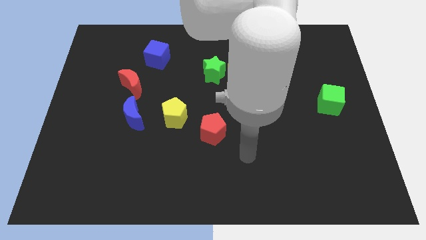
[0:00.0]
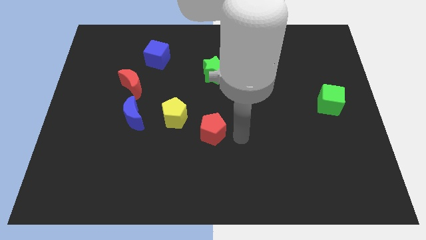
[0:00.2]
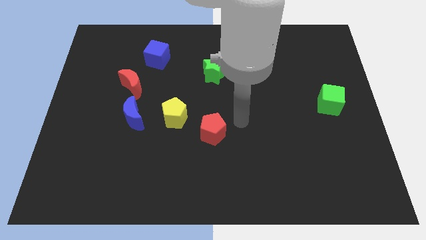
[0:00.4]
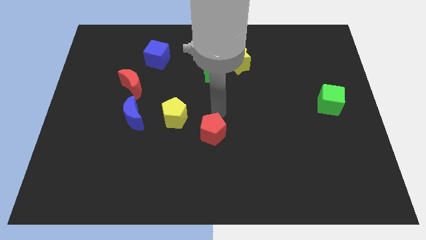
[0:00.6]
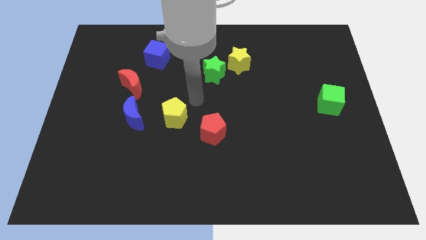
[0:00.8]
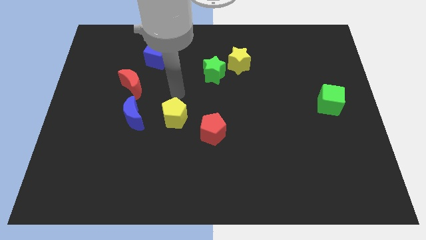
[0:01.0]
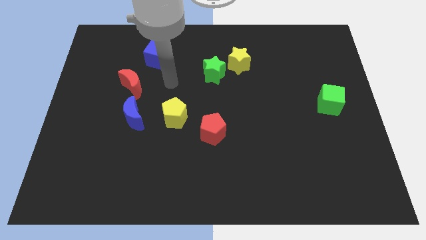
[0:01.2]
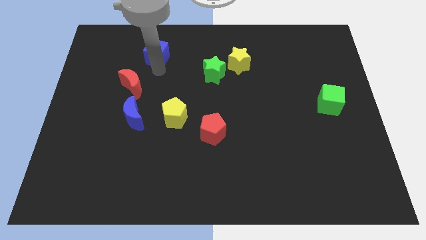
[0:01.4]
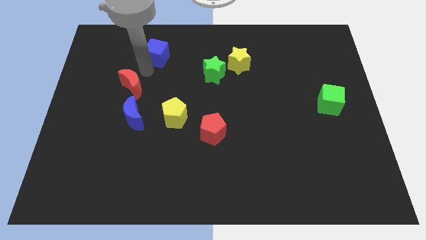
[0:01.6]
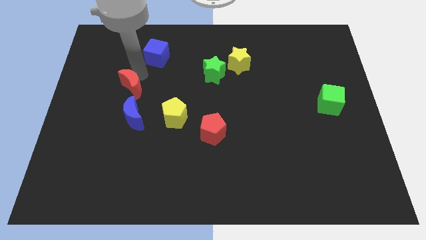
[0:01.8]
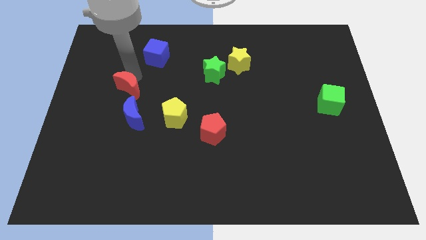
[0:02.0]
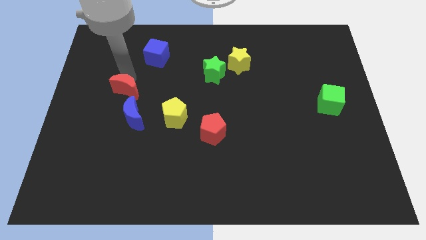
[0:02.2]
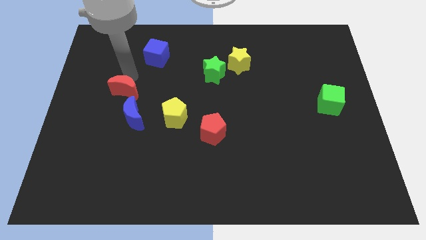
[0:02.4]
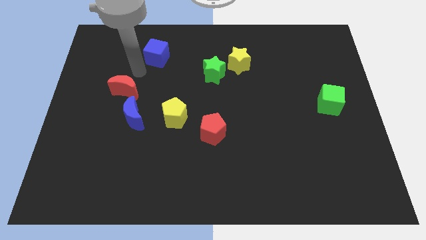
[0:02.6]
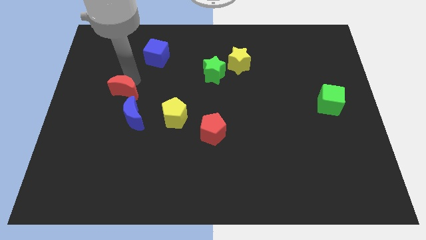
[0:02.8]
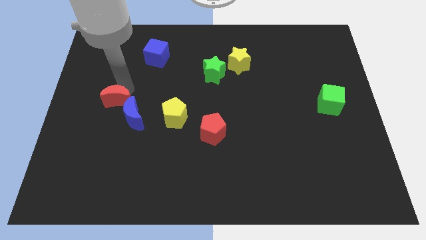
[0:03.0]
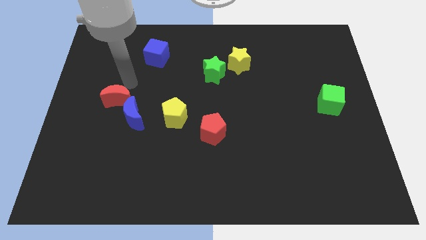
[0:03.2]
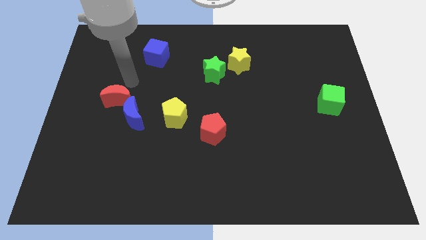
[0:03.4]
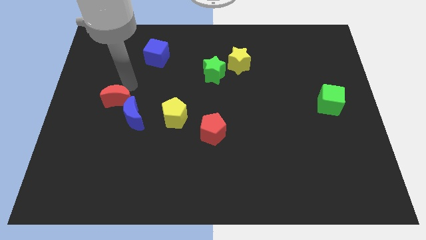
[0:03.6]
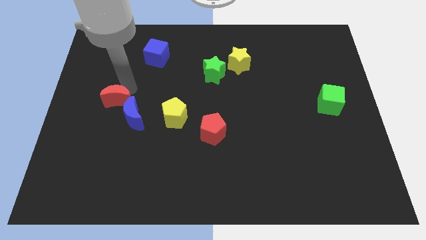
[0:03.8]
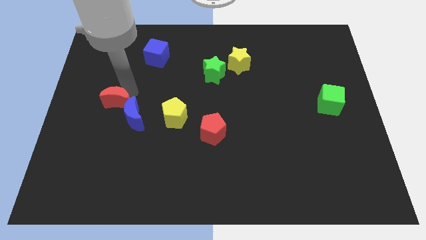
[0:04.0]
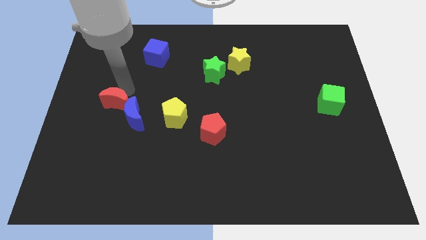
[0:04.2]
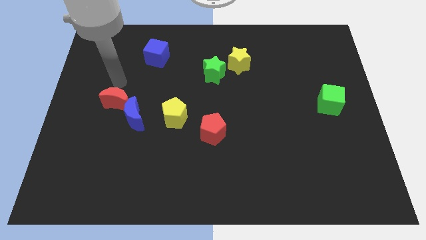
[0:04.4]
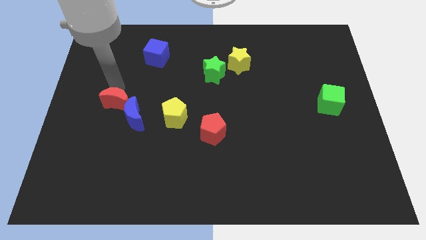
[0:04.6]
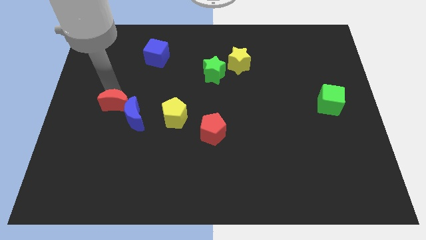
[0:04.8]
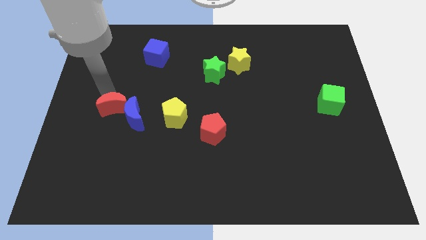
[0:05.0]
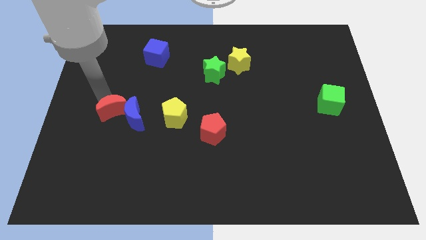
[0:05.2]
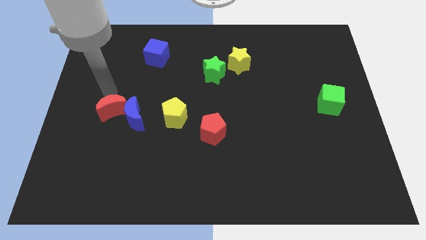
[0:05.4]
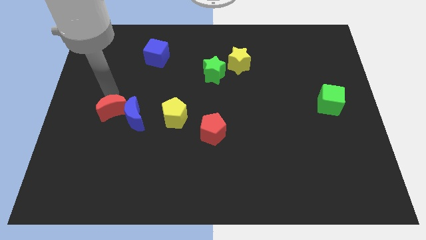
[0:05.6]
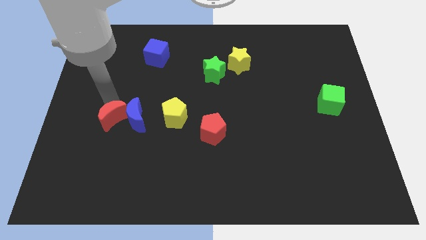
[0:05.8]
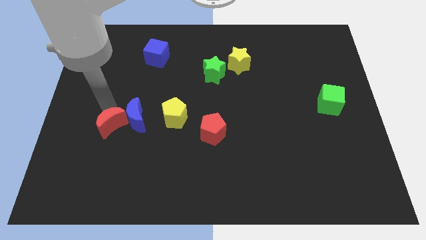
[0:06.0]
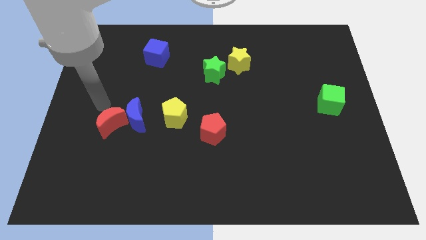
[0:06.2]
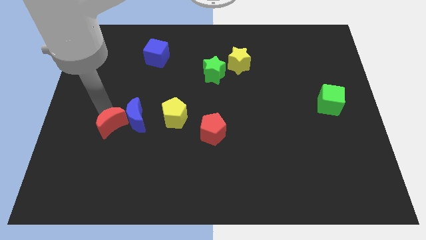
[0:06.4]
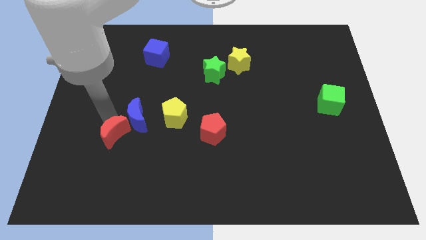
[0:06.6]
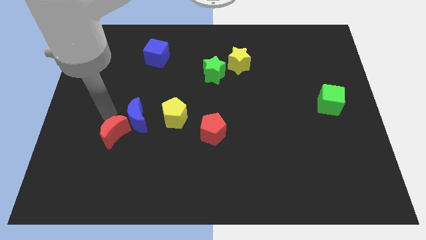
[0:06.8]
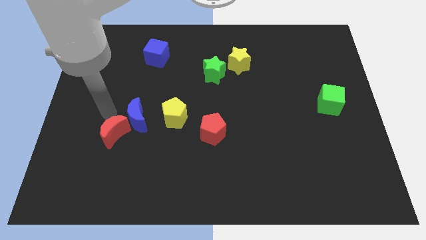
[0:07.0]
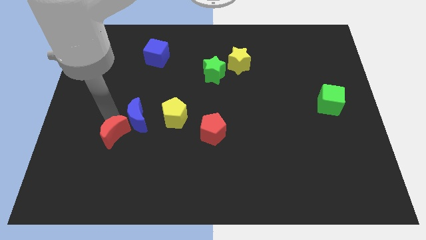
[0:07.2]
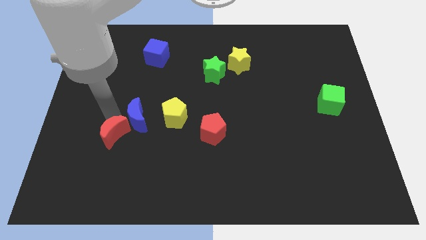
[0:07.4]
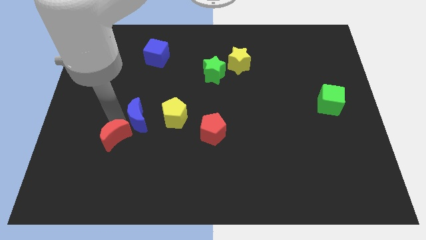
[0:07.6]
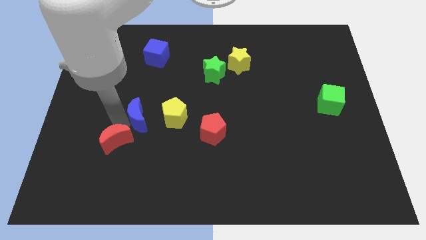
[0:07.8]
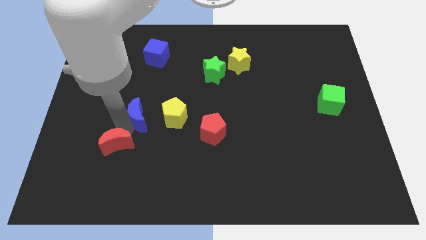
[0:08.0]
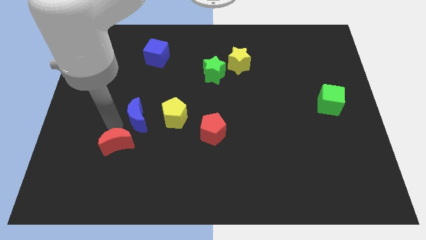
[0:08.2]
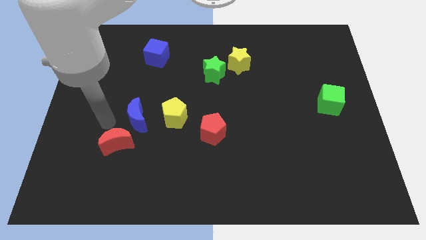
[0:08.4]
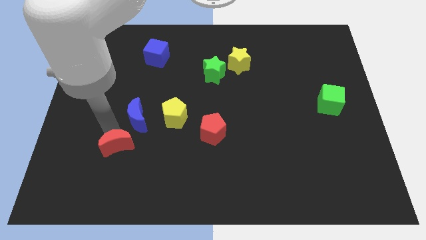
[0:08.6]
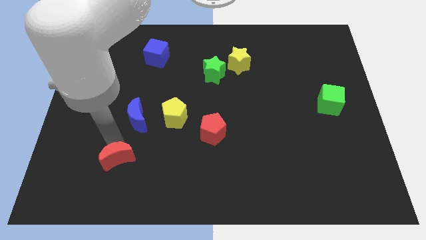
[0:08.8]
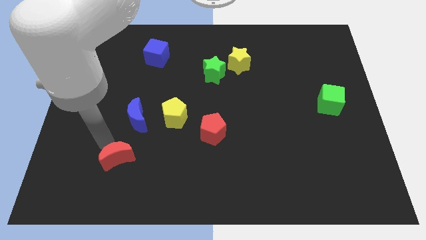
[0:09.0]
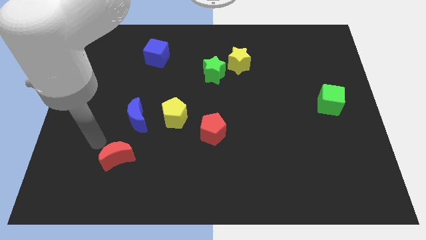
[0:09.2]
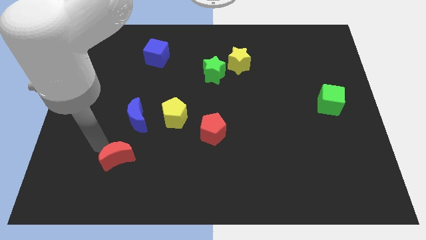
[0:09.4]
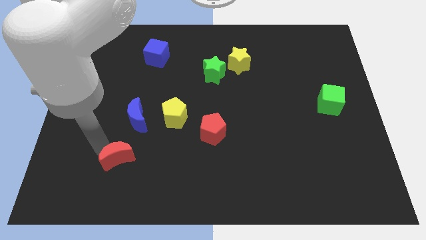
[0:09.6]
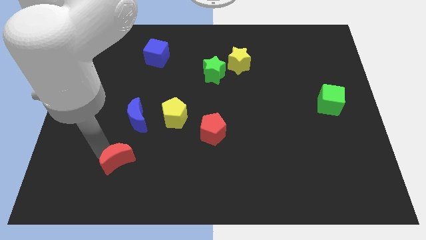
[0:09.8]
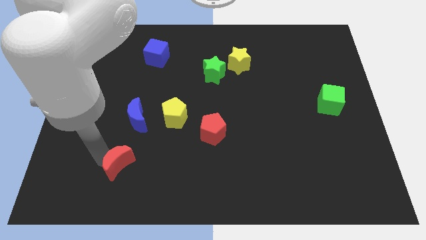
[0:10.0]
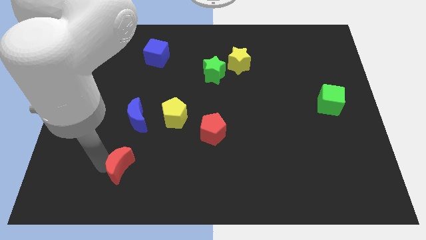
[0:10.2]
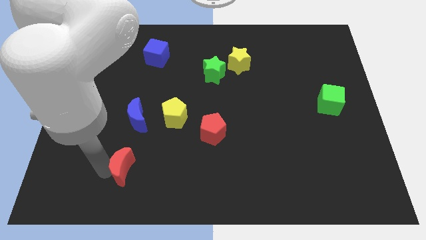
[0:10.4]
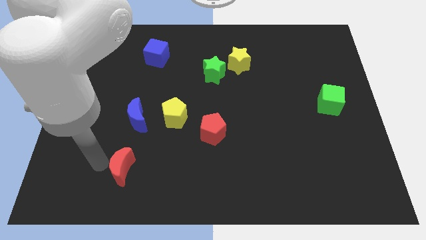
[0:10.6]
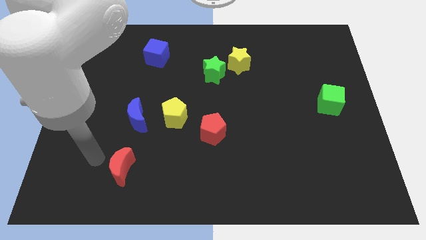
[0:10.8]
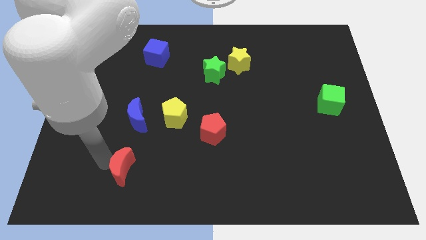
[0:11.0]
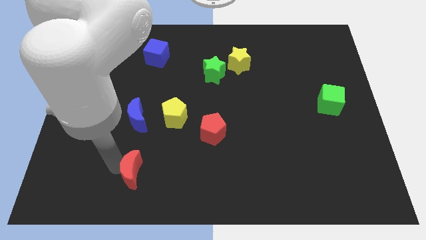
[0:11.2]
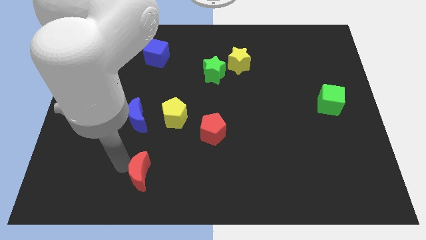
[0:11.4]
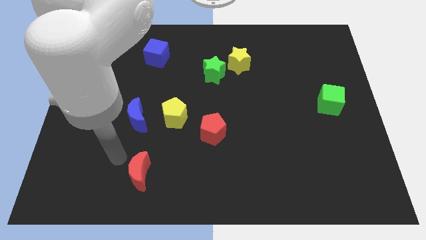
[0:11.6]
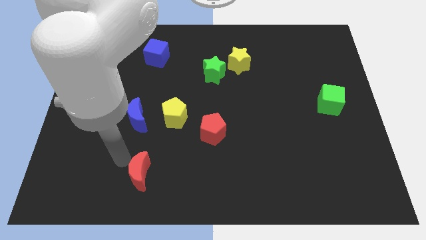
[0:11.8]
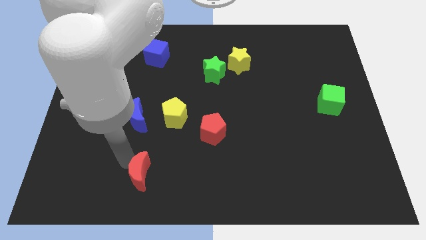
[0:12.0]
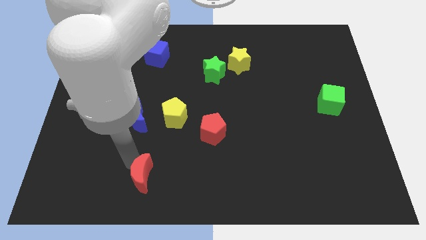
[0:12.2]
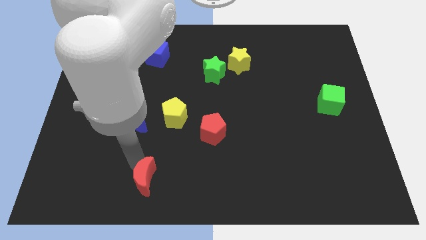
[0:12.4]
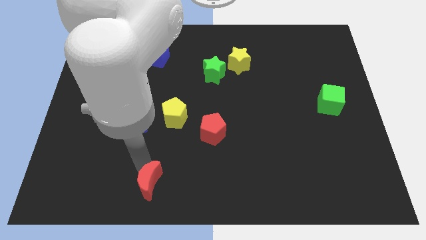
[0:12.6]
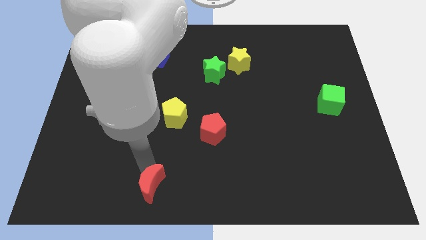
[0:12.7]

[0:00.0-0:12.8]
move the red moon to the bottom side

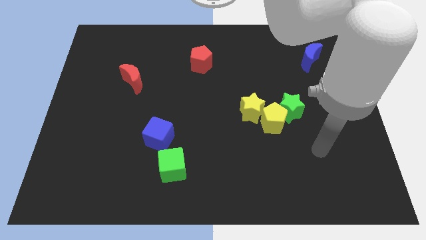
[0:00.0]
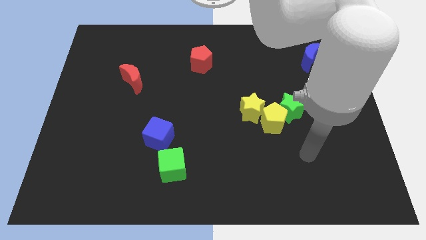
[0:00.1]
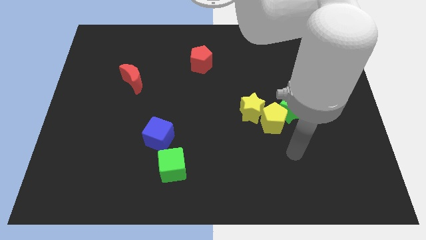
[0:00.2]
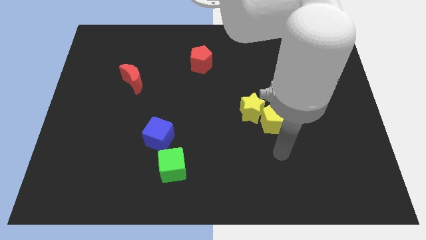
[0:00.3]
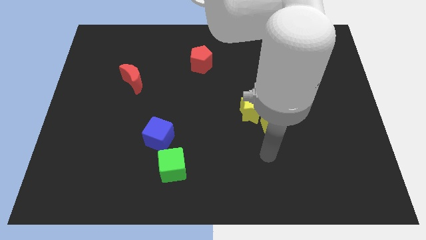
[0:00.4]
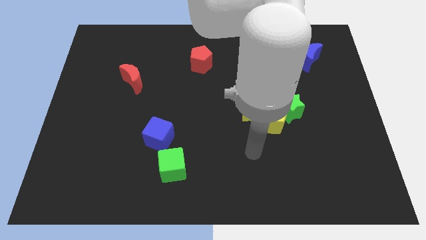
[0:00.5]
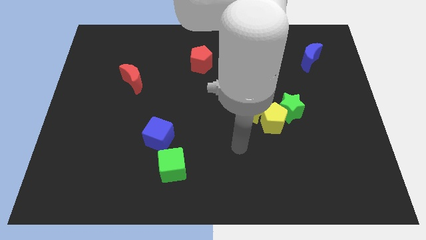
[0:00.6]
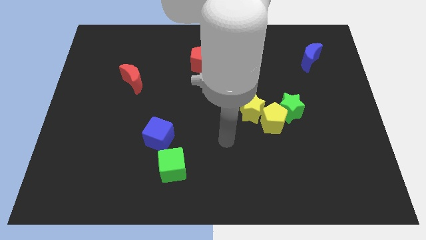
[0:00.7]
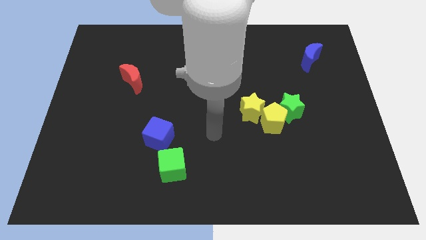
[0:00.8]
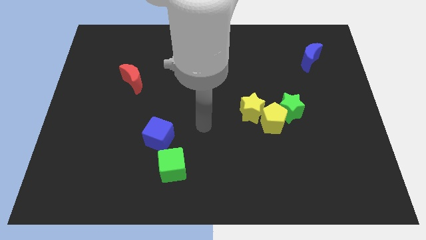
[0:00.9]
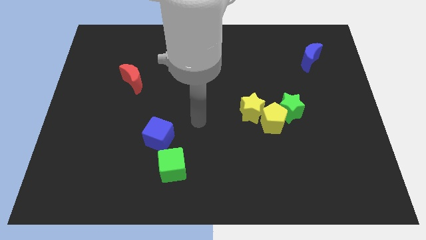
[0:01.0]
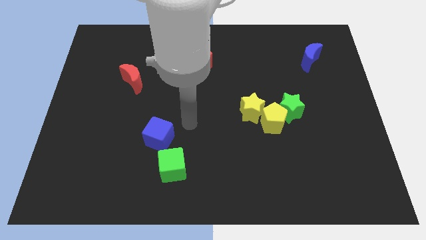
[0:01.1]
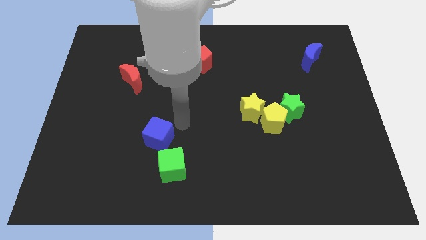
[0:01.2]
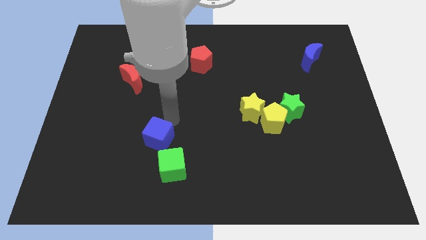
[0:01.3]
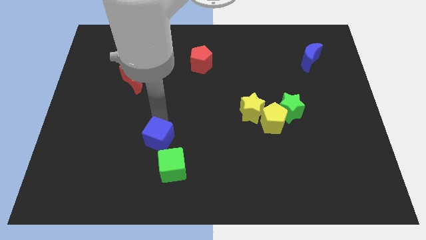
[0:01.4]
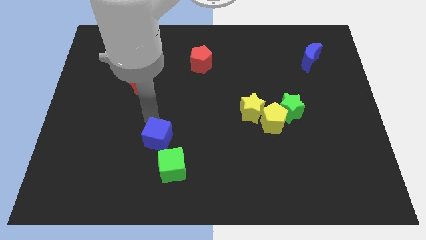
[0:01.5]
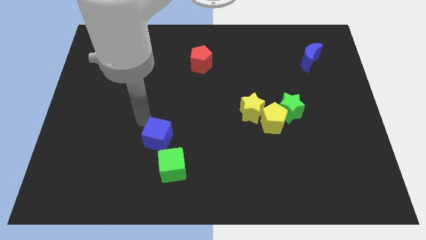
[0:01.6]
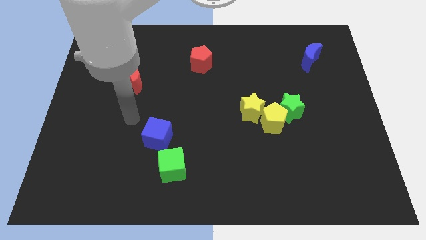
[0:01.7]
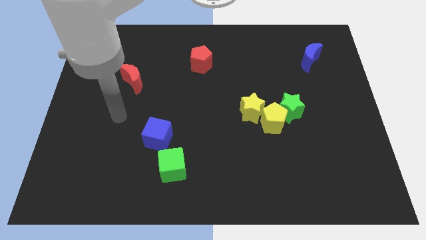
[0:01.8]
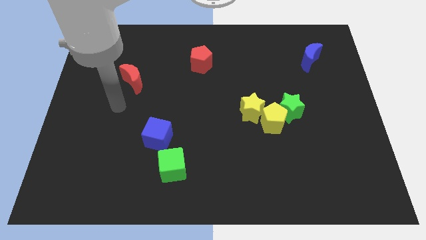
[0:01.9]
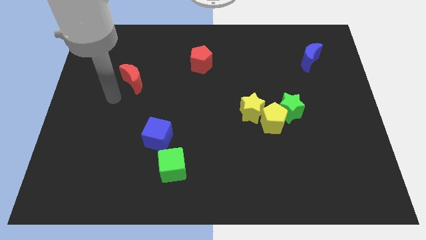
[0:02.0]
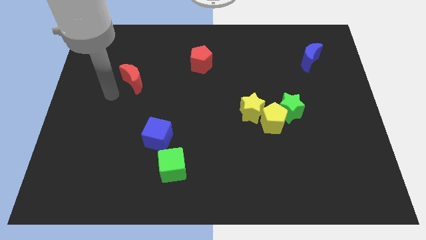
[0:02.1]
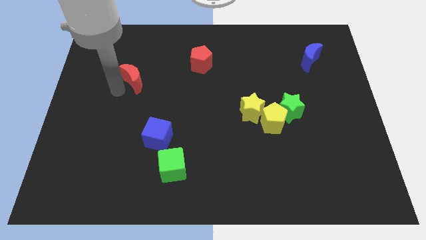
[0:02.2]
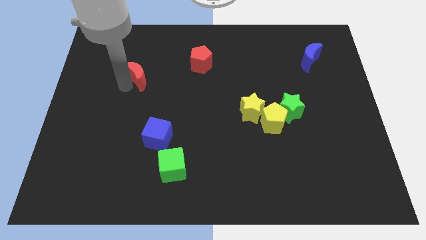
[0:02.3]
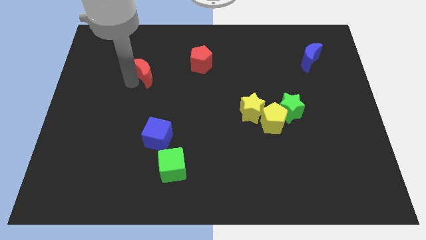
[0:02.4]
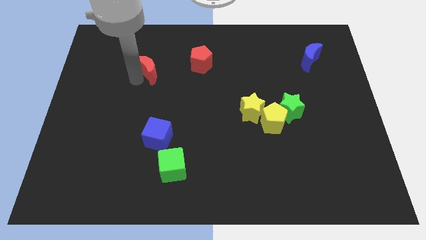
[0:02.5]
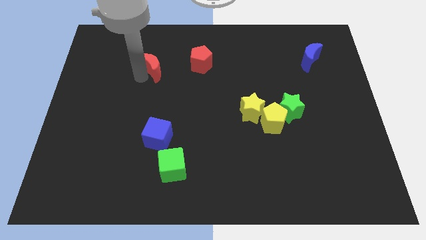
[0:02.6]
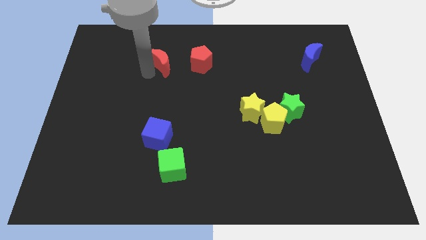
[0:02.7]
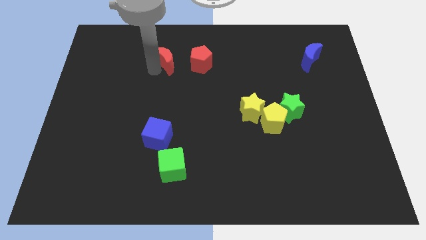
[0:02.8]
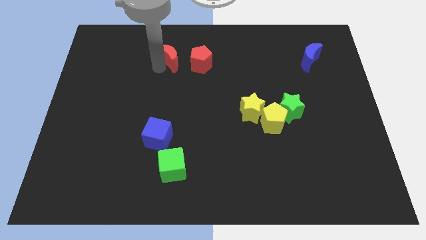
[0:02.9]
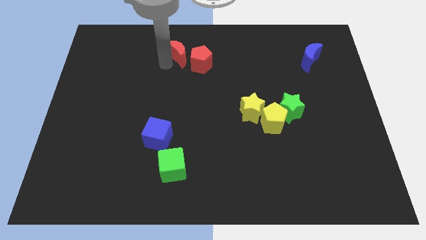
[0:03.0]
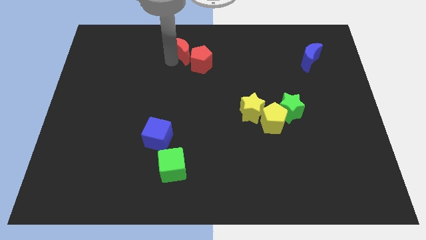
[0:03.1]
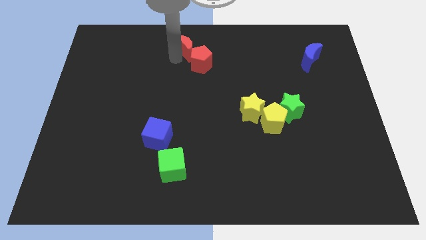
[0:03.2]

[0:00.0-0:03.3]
move the red moon to the towards your base
